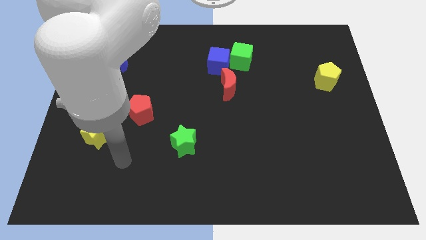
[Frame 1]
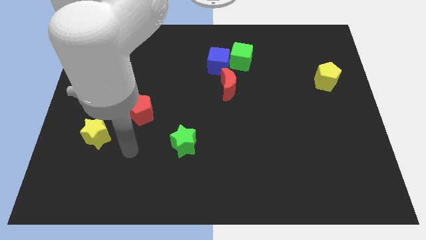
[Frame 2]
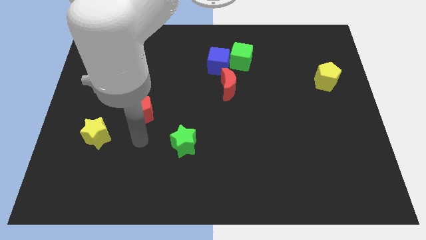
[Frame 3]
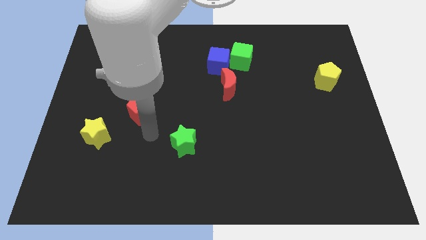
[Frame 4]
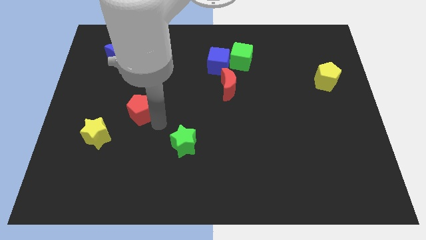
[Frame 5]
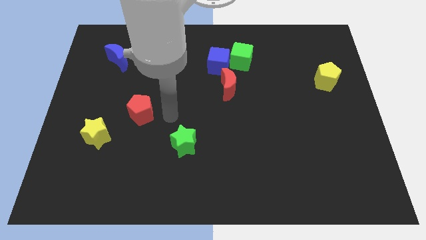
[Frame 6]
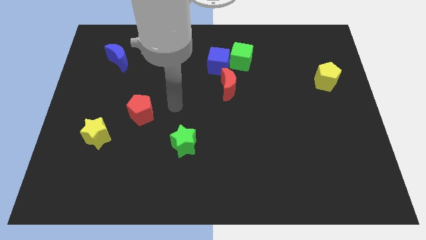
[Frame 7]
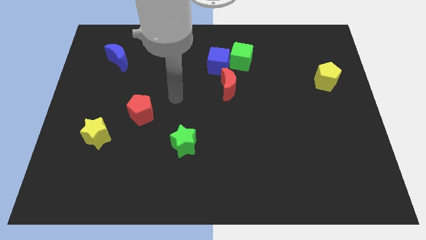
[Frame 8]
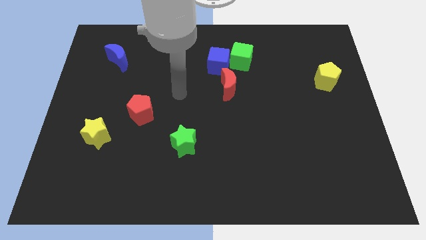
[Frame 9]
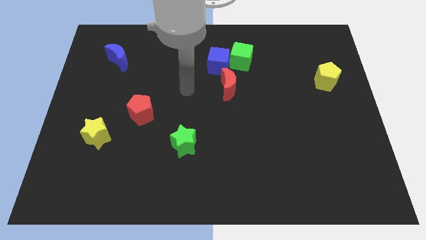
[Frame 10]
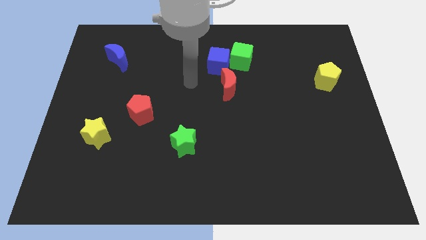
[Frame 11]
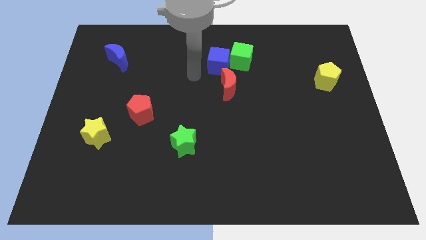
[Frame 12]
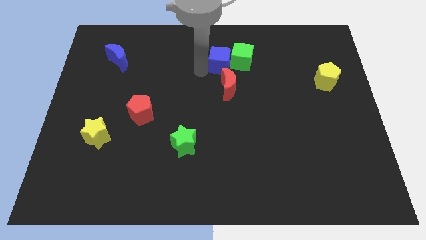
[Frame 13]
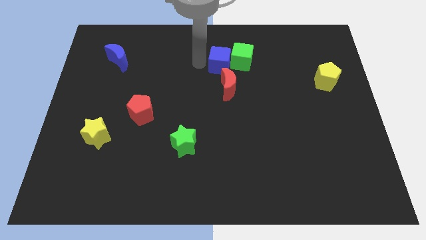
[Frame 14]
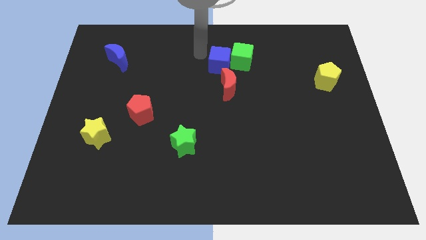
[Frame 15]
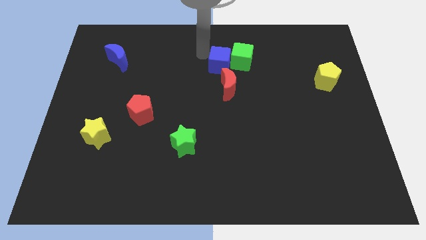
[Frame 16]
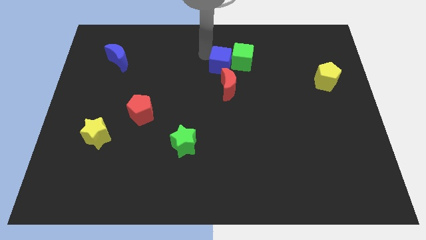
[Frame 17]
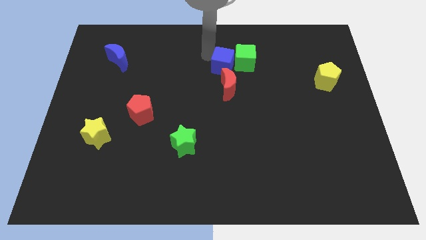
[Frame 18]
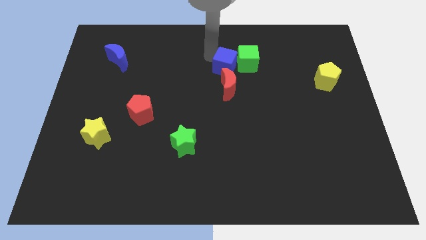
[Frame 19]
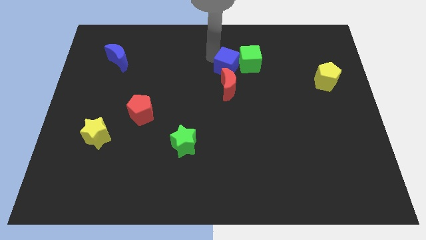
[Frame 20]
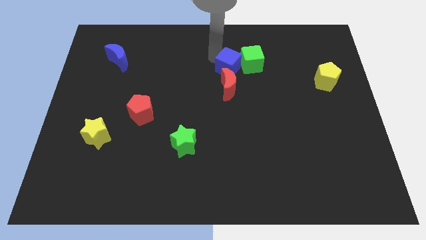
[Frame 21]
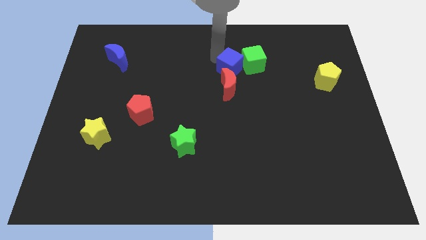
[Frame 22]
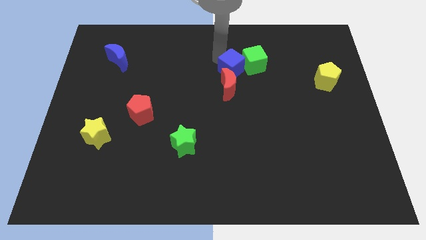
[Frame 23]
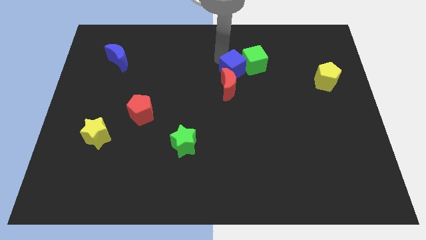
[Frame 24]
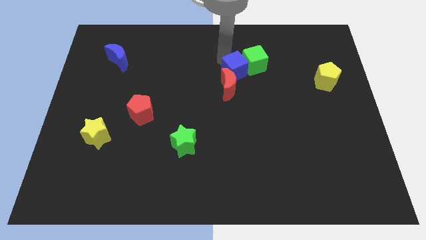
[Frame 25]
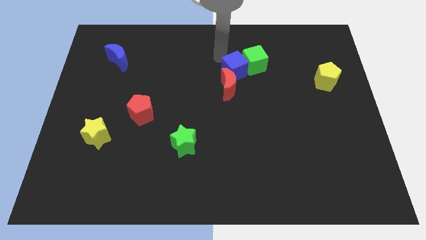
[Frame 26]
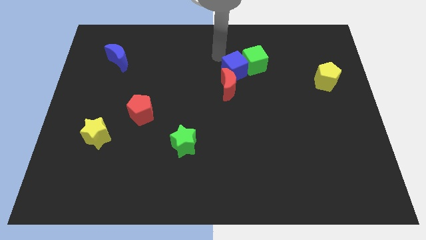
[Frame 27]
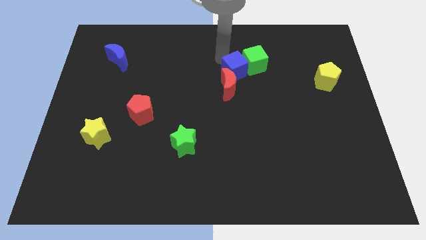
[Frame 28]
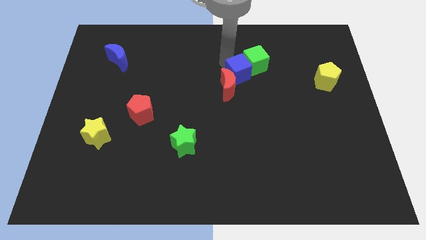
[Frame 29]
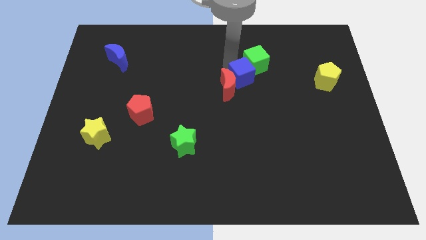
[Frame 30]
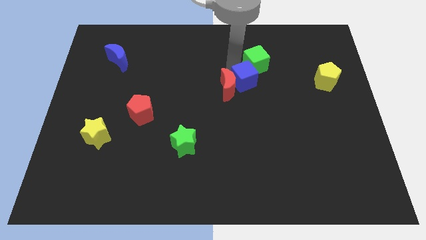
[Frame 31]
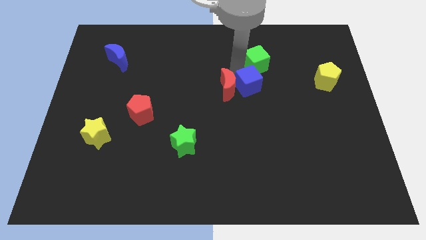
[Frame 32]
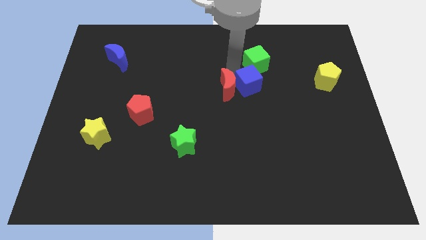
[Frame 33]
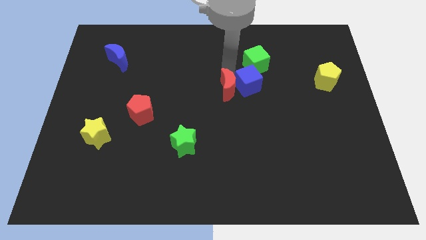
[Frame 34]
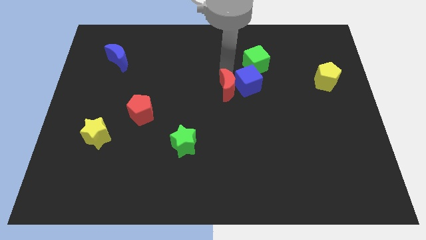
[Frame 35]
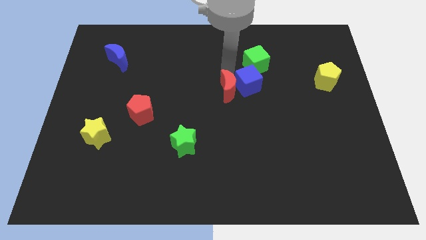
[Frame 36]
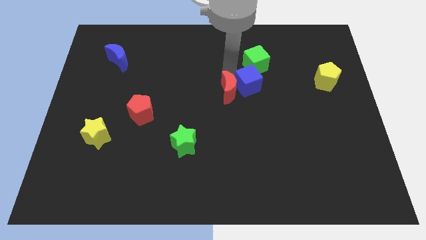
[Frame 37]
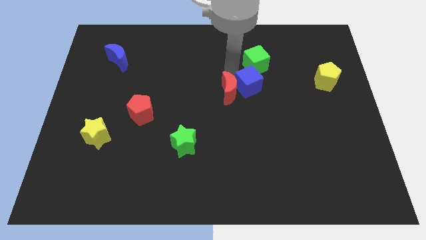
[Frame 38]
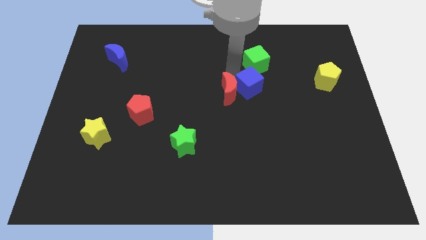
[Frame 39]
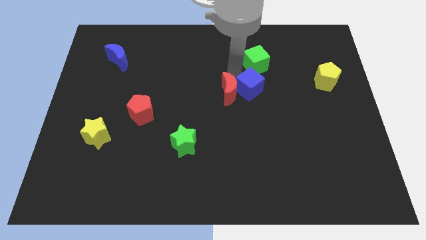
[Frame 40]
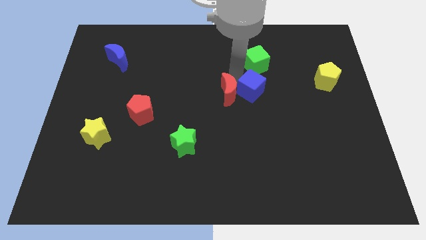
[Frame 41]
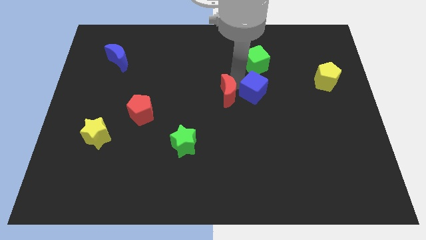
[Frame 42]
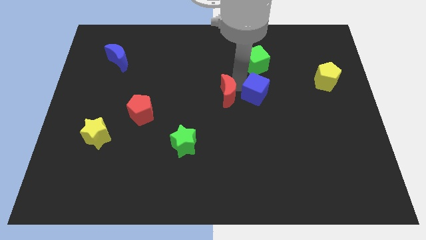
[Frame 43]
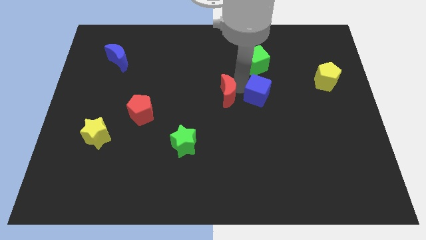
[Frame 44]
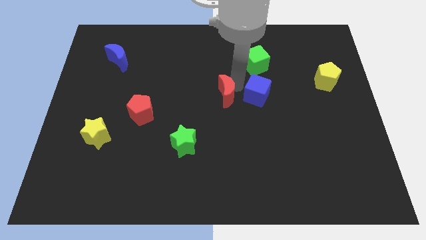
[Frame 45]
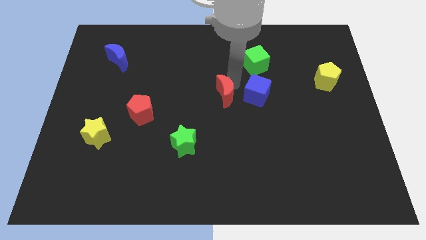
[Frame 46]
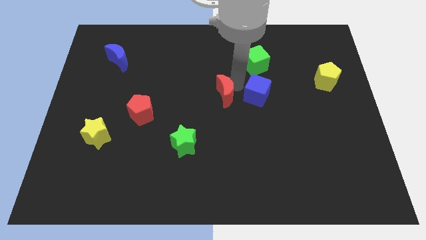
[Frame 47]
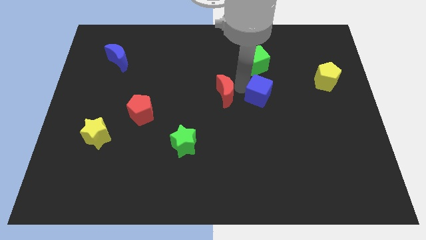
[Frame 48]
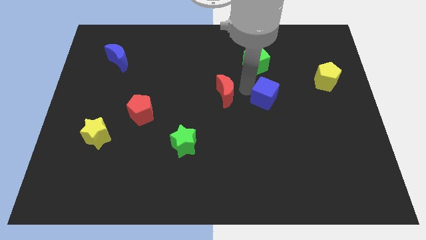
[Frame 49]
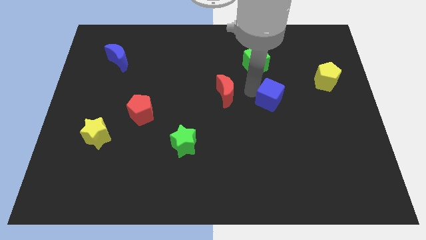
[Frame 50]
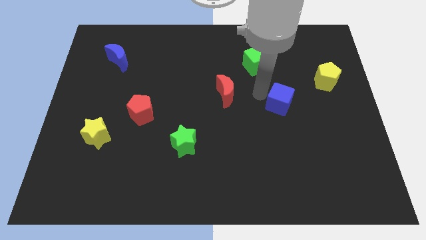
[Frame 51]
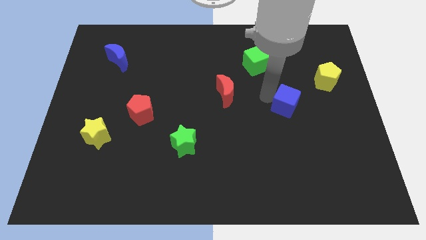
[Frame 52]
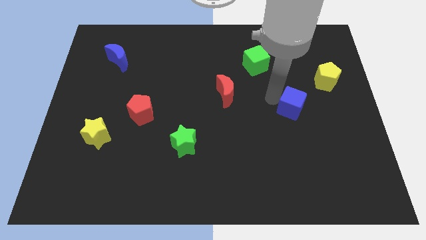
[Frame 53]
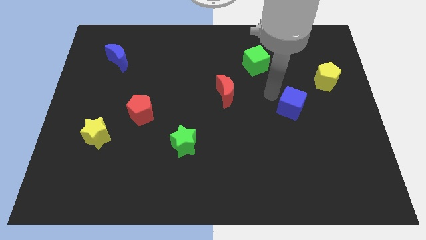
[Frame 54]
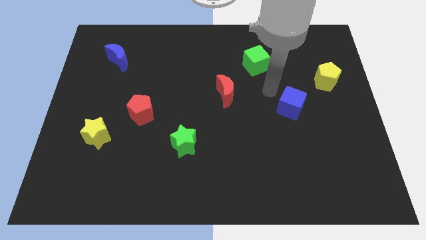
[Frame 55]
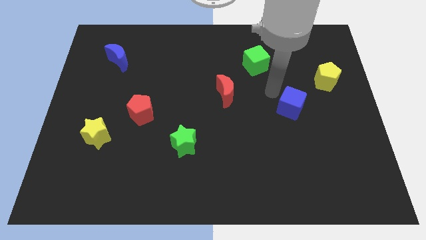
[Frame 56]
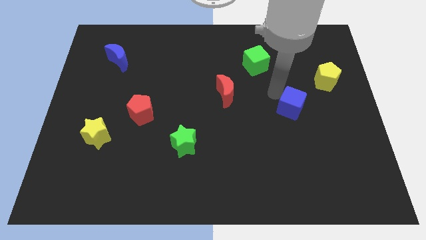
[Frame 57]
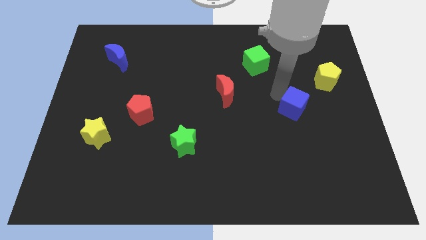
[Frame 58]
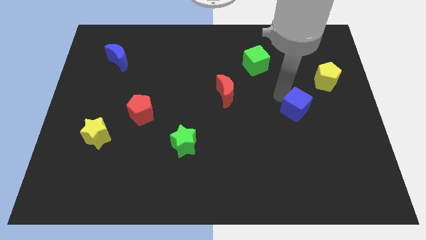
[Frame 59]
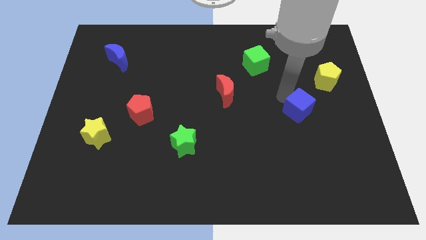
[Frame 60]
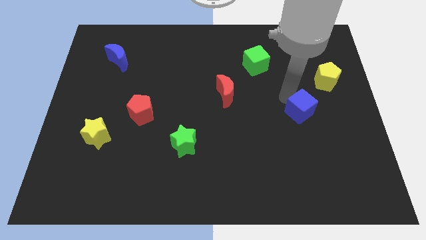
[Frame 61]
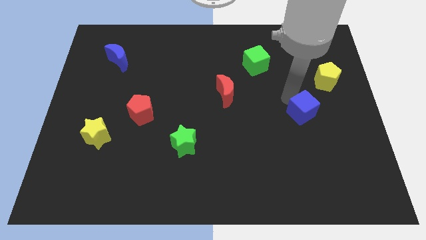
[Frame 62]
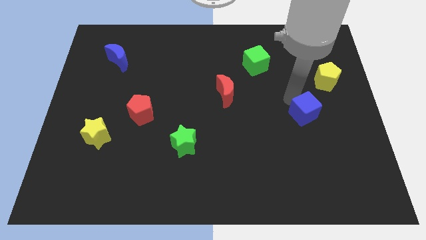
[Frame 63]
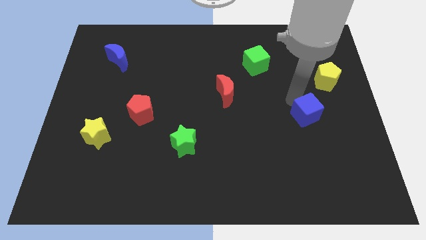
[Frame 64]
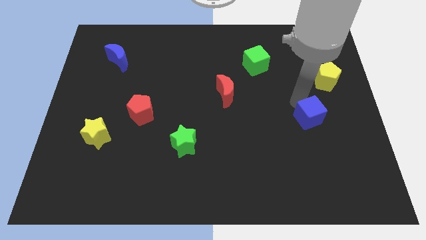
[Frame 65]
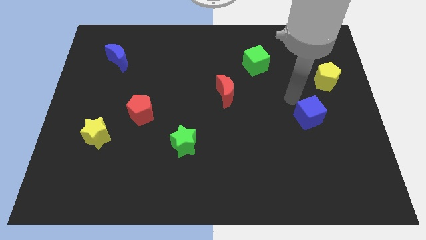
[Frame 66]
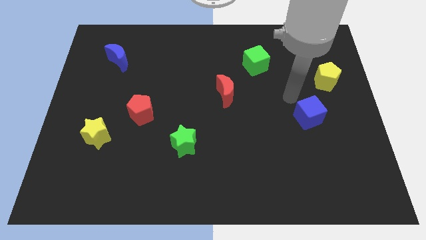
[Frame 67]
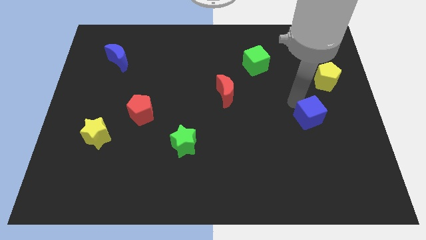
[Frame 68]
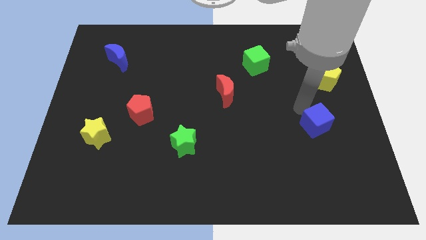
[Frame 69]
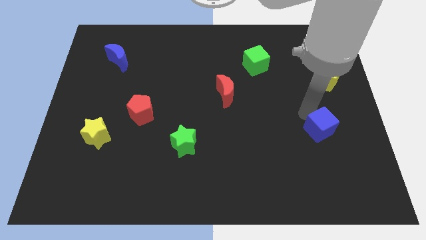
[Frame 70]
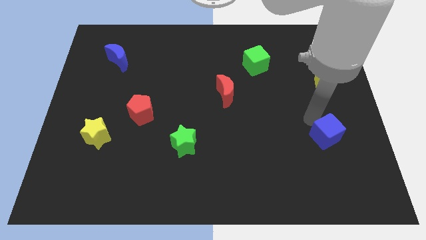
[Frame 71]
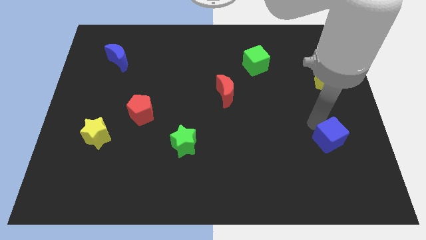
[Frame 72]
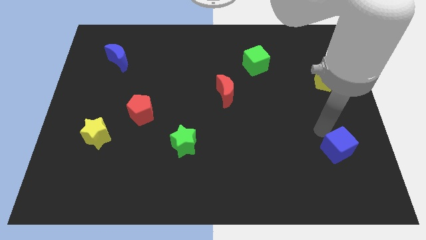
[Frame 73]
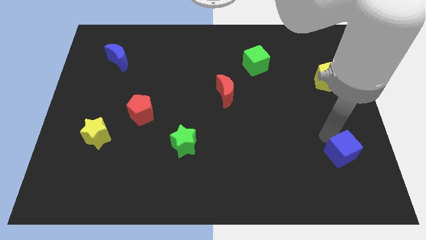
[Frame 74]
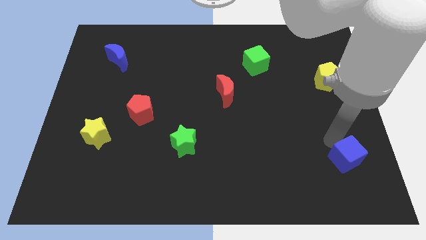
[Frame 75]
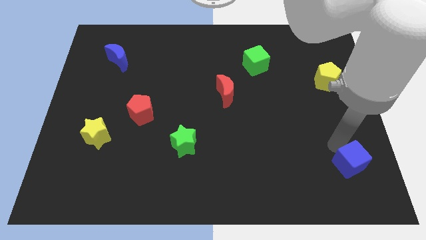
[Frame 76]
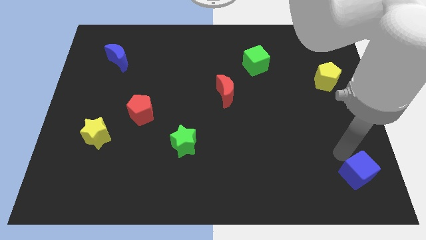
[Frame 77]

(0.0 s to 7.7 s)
slide the blue cube to the lower right corner

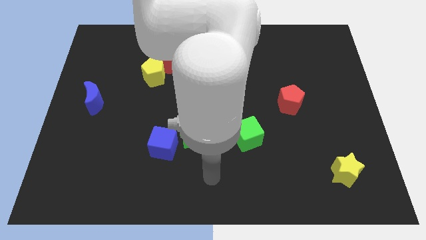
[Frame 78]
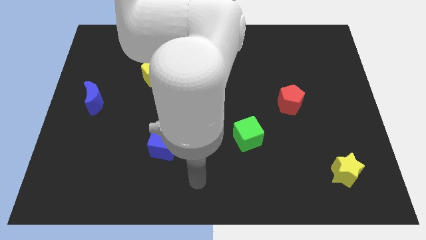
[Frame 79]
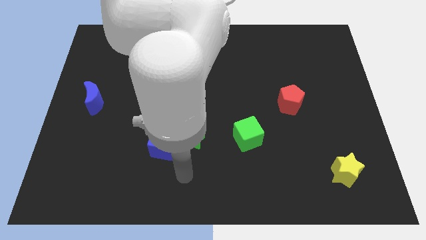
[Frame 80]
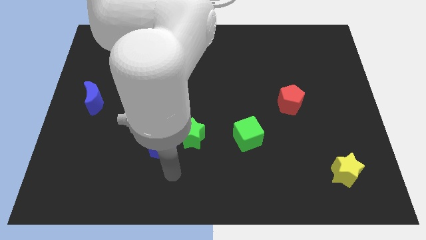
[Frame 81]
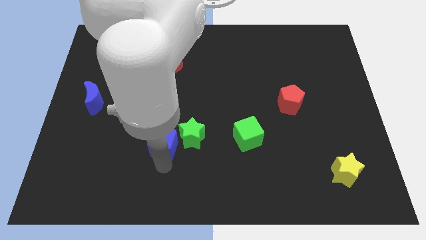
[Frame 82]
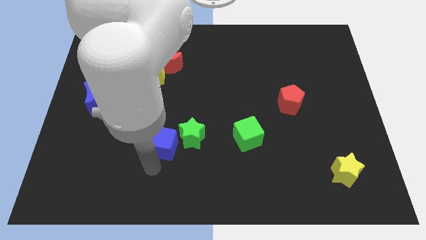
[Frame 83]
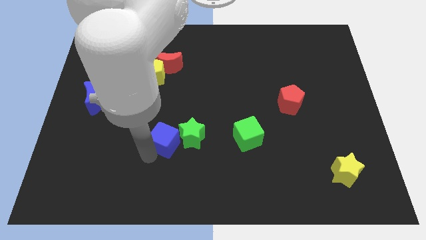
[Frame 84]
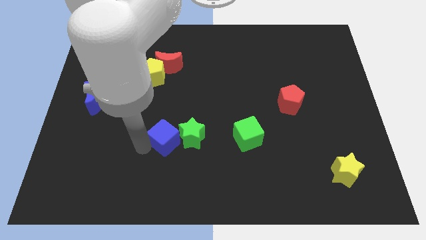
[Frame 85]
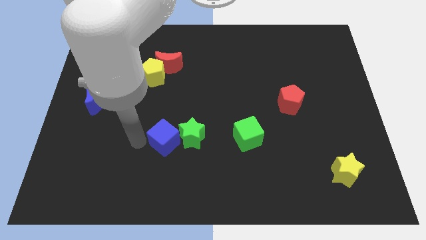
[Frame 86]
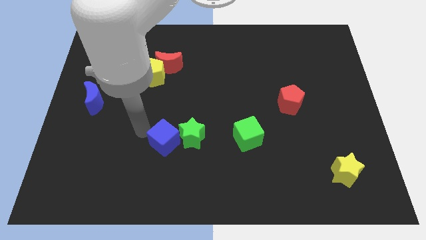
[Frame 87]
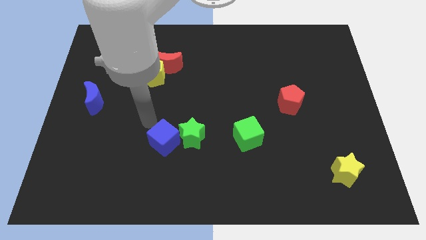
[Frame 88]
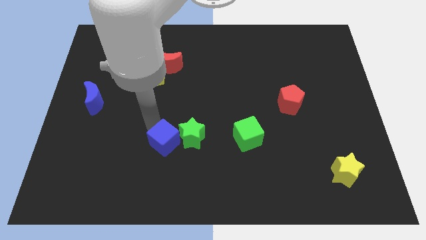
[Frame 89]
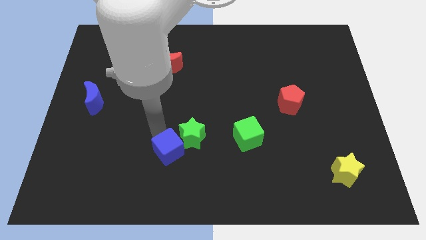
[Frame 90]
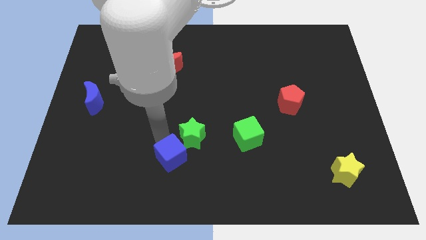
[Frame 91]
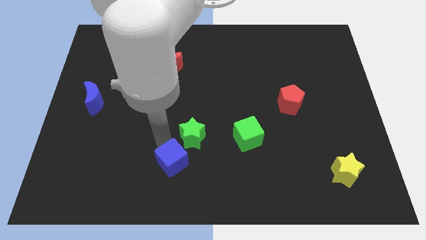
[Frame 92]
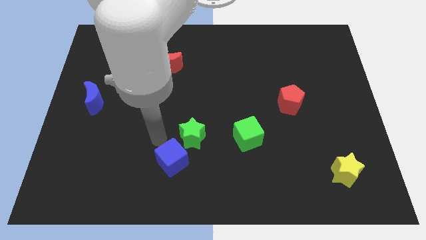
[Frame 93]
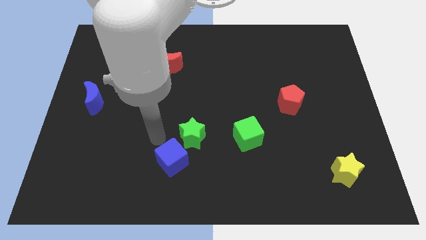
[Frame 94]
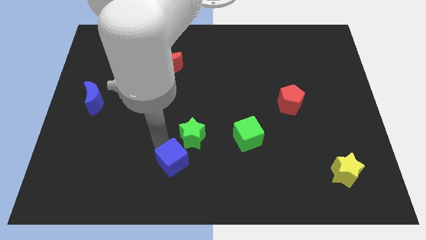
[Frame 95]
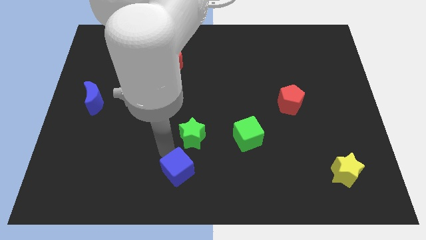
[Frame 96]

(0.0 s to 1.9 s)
slide the blue cube to the bottom side
